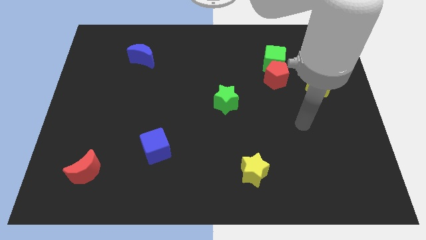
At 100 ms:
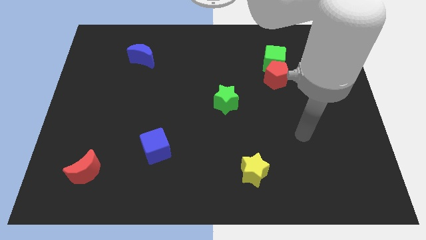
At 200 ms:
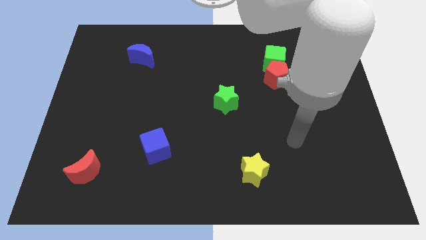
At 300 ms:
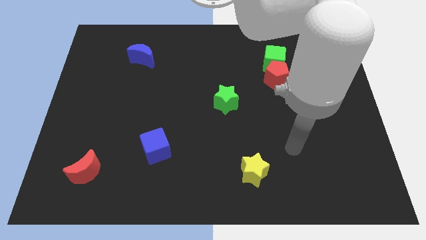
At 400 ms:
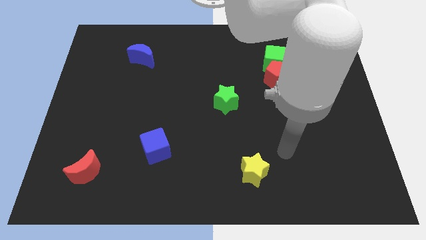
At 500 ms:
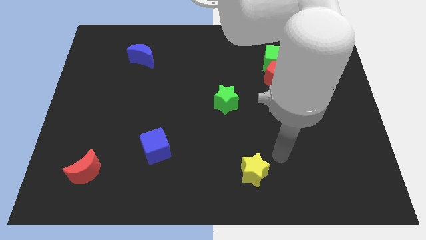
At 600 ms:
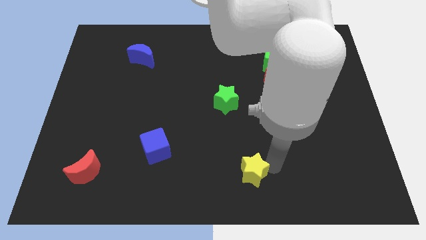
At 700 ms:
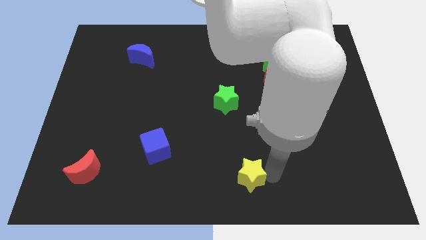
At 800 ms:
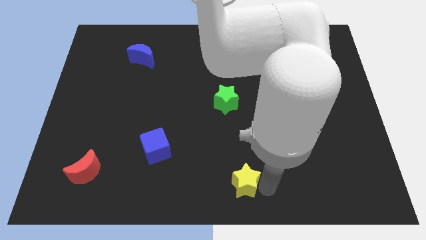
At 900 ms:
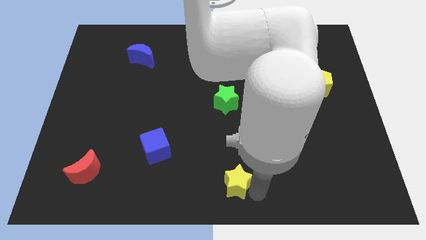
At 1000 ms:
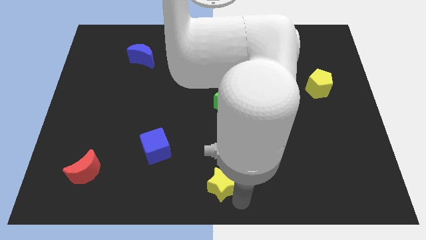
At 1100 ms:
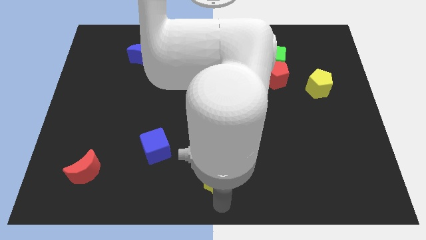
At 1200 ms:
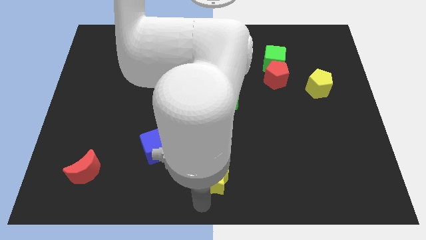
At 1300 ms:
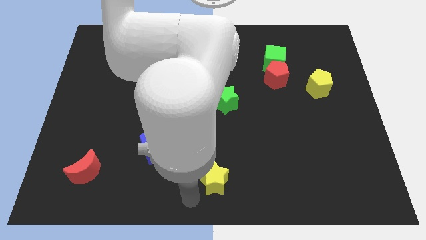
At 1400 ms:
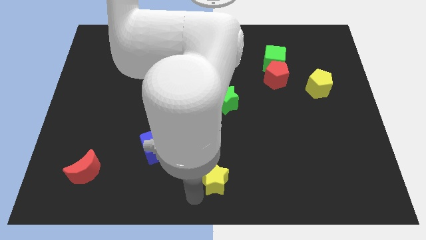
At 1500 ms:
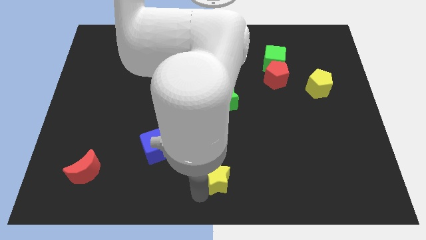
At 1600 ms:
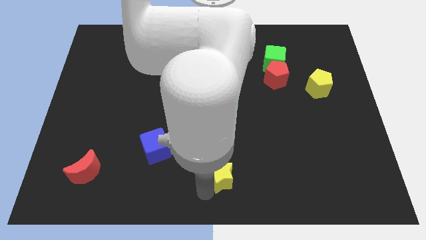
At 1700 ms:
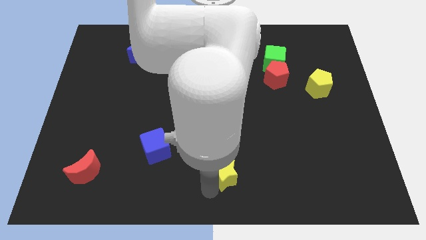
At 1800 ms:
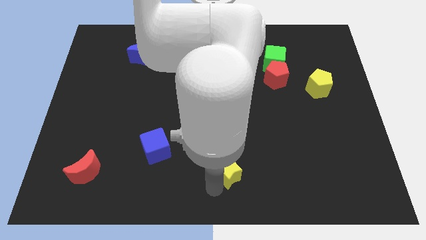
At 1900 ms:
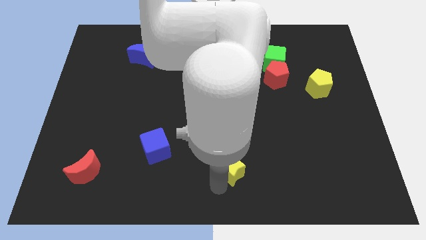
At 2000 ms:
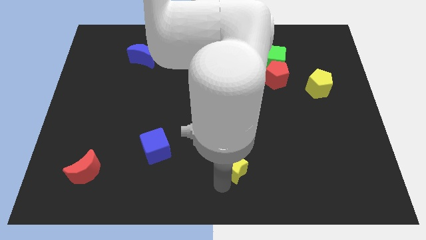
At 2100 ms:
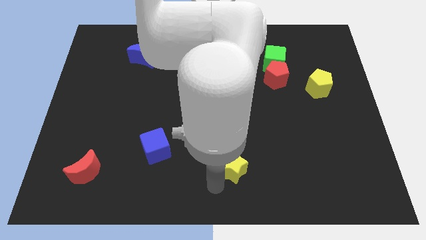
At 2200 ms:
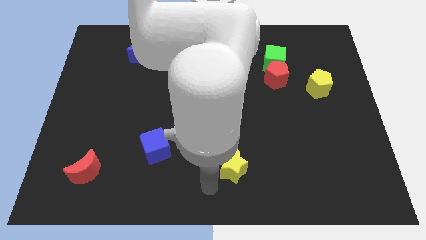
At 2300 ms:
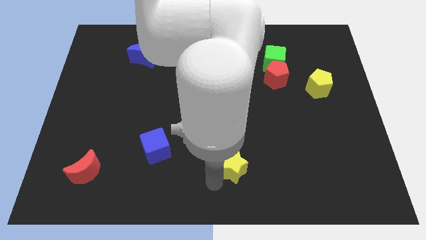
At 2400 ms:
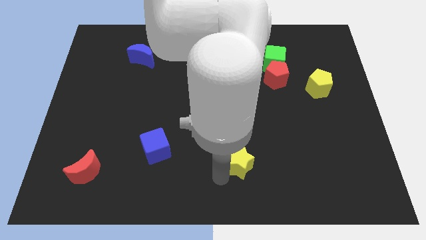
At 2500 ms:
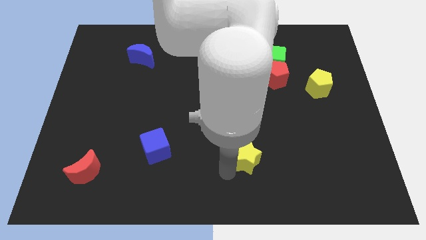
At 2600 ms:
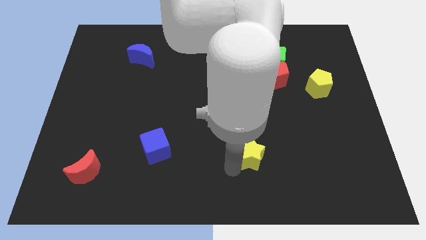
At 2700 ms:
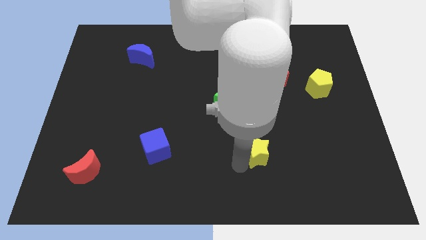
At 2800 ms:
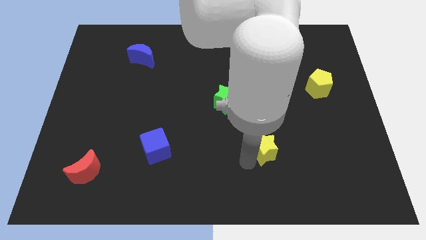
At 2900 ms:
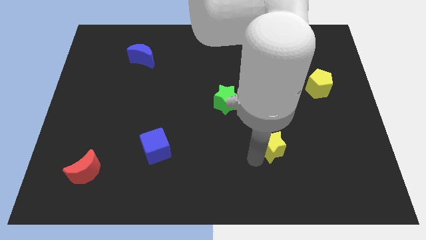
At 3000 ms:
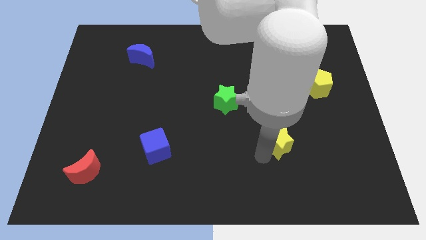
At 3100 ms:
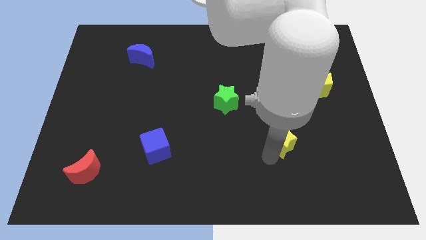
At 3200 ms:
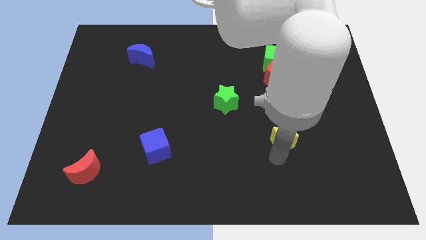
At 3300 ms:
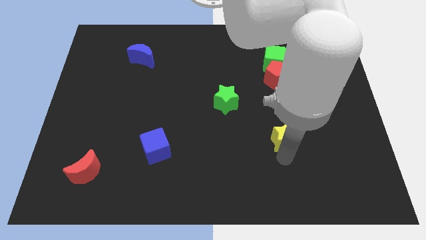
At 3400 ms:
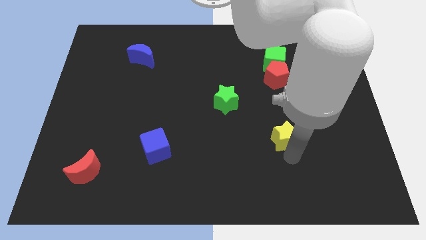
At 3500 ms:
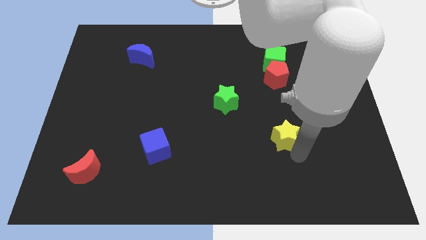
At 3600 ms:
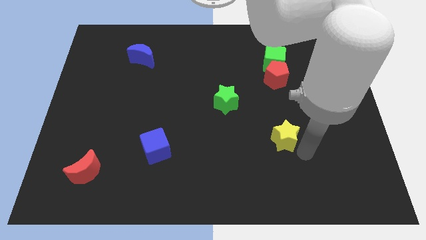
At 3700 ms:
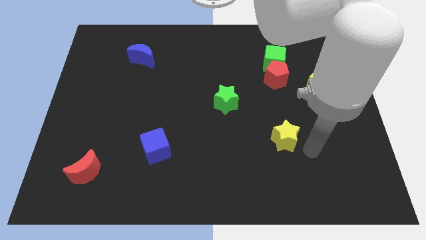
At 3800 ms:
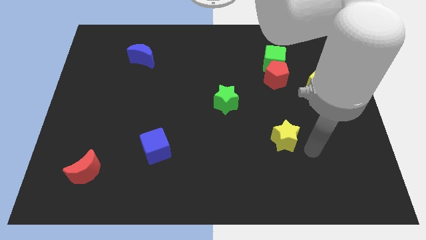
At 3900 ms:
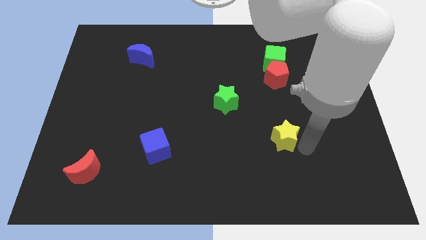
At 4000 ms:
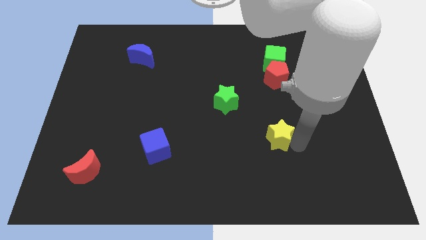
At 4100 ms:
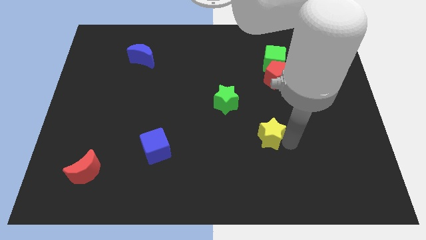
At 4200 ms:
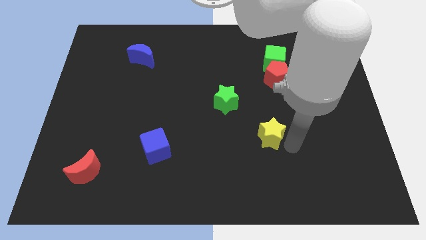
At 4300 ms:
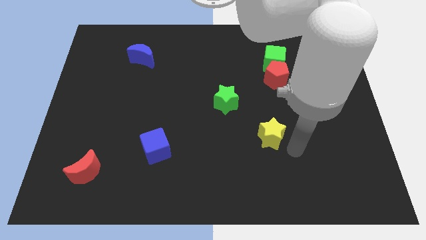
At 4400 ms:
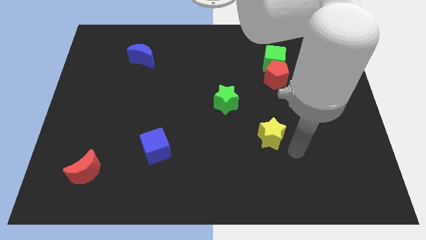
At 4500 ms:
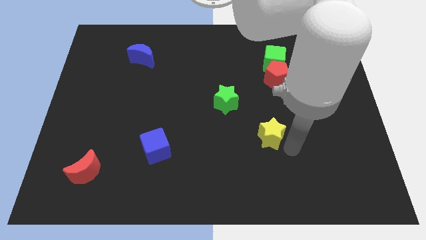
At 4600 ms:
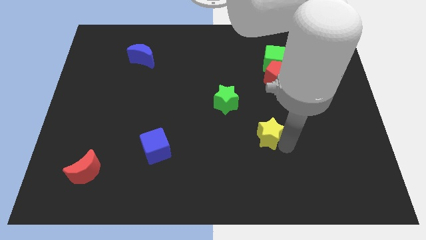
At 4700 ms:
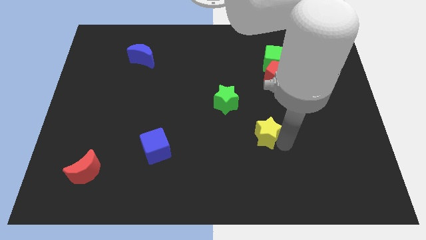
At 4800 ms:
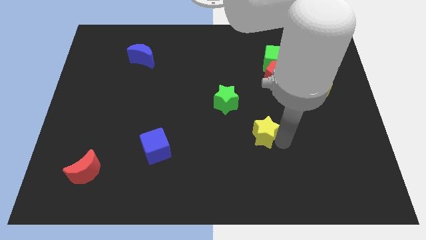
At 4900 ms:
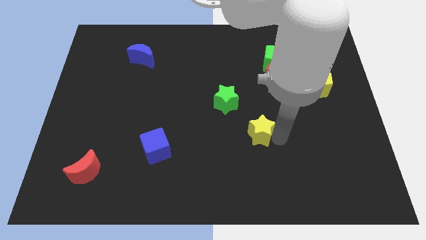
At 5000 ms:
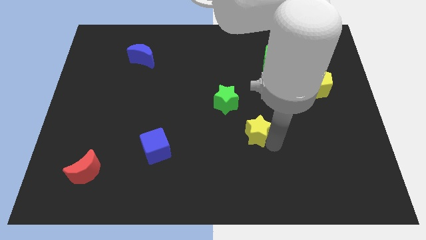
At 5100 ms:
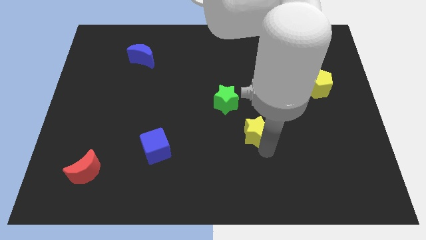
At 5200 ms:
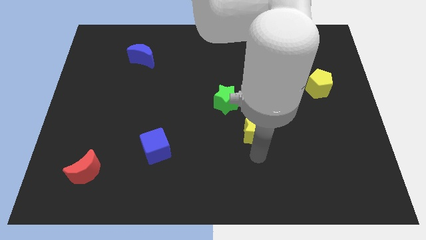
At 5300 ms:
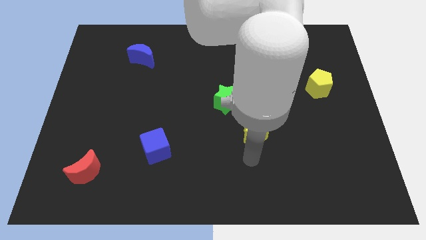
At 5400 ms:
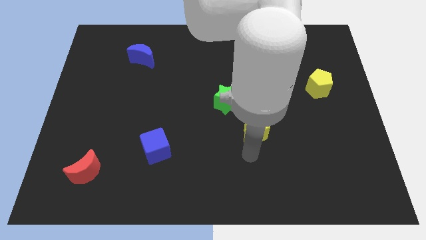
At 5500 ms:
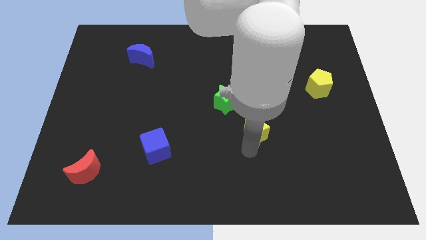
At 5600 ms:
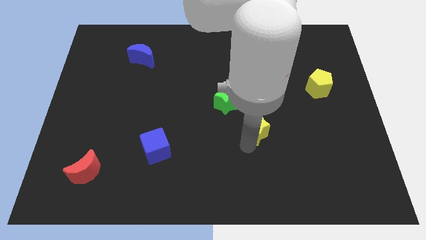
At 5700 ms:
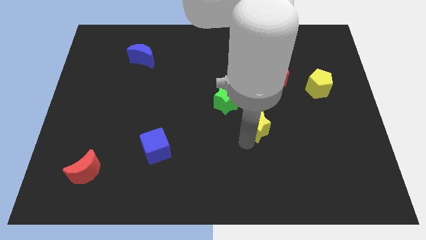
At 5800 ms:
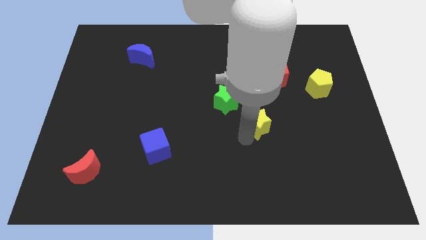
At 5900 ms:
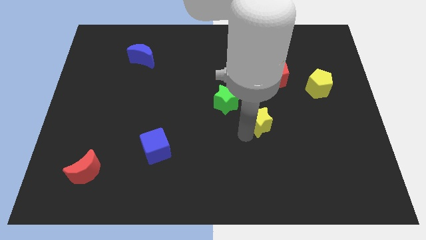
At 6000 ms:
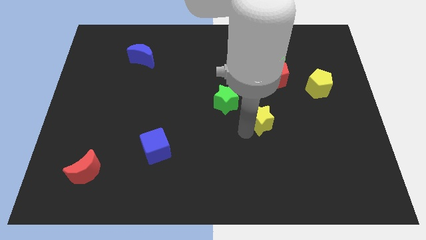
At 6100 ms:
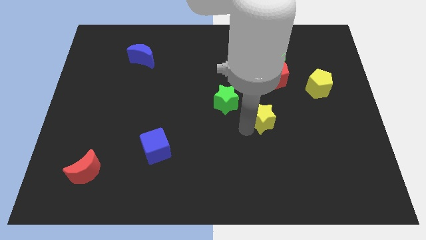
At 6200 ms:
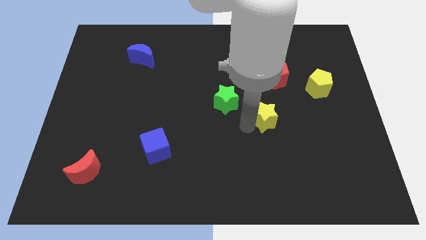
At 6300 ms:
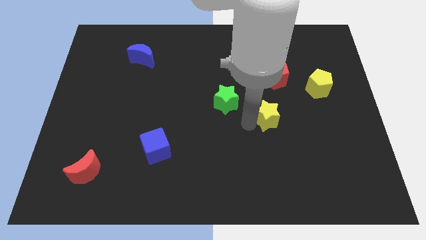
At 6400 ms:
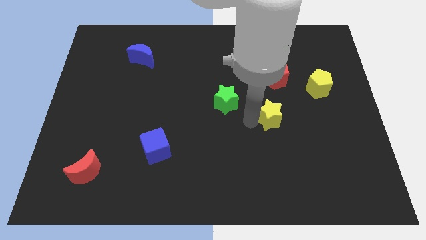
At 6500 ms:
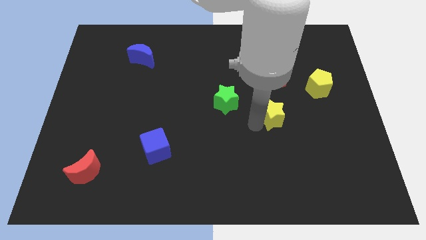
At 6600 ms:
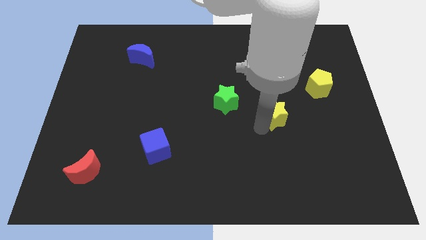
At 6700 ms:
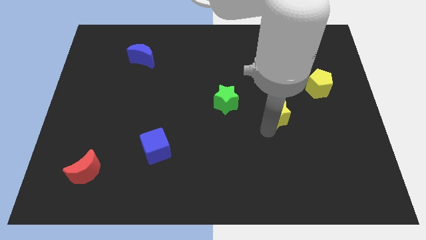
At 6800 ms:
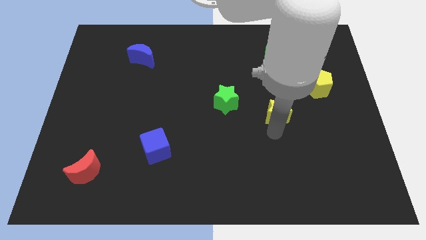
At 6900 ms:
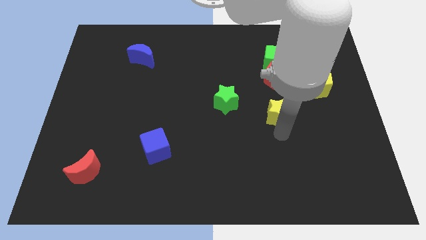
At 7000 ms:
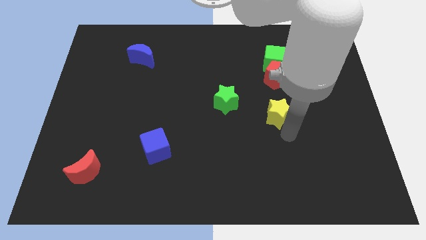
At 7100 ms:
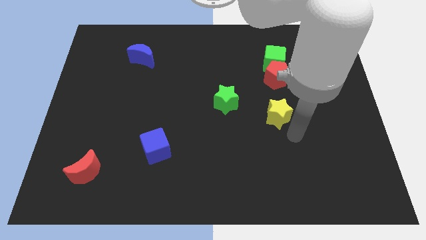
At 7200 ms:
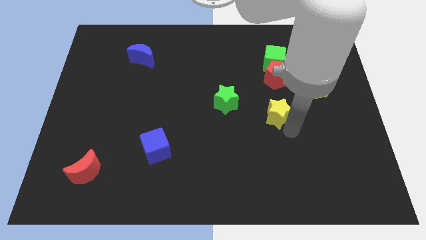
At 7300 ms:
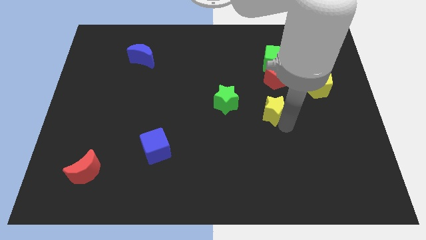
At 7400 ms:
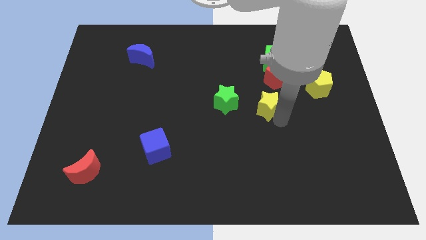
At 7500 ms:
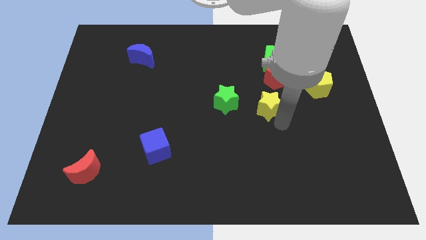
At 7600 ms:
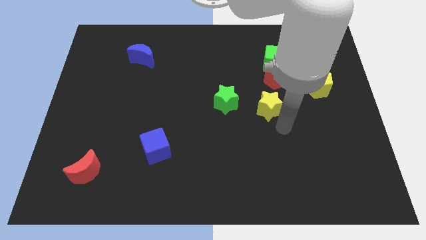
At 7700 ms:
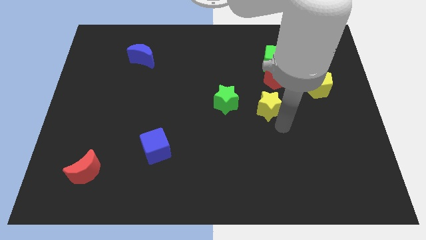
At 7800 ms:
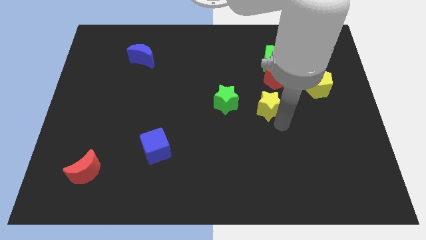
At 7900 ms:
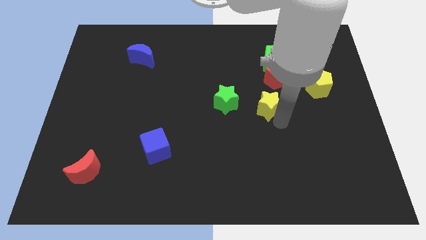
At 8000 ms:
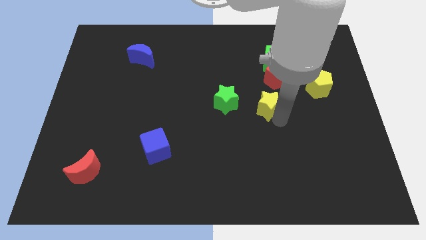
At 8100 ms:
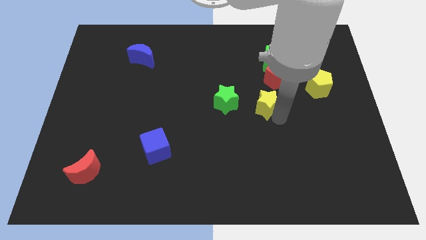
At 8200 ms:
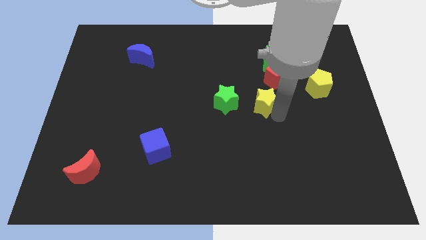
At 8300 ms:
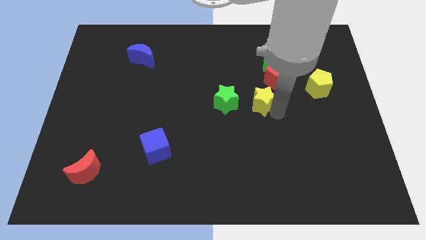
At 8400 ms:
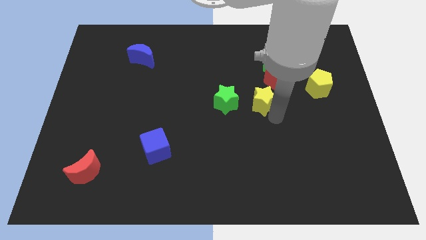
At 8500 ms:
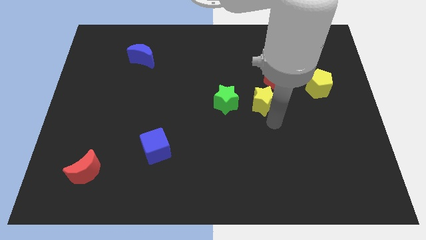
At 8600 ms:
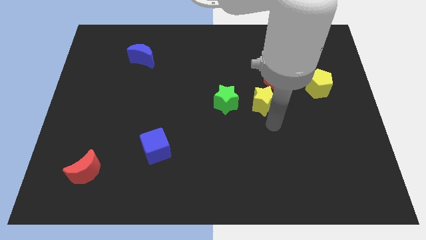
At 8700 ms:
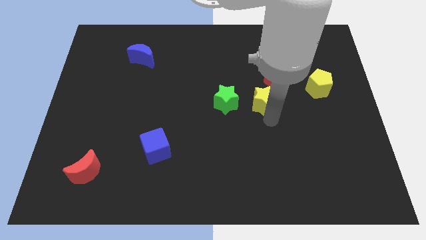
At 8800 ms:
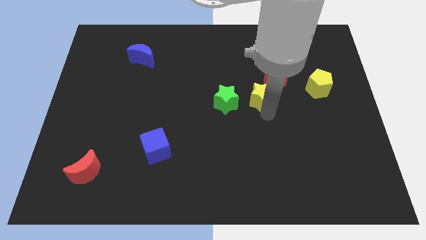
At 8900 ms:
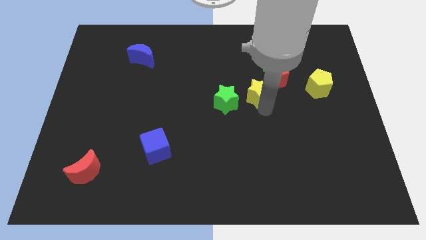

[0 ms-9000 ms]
push the yellow star upwards
